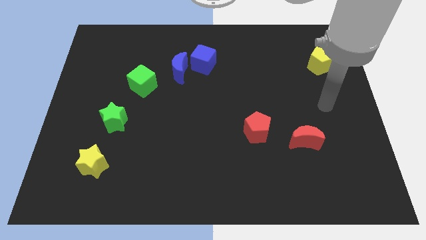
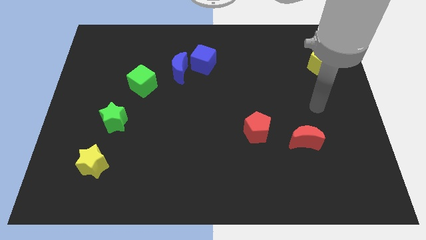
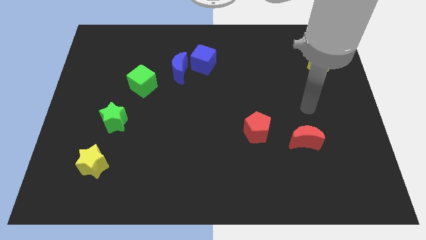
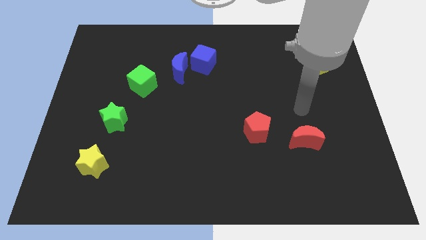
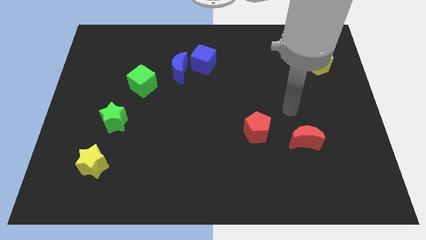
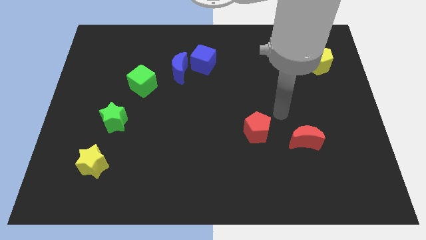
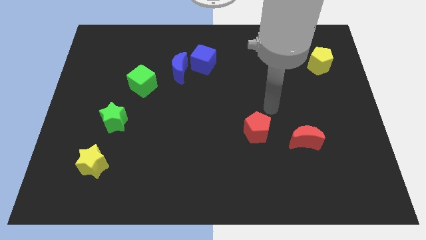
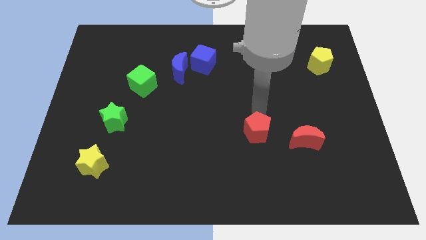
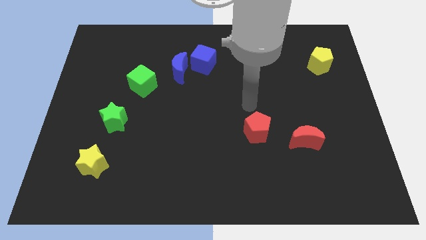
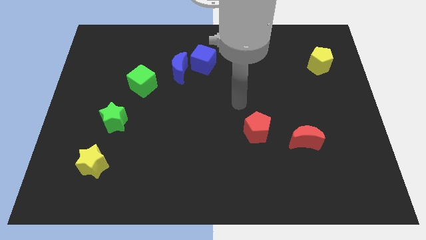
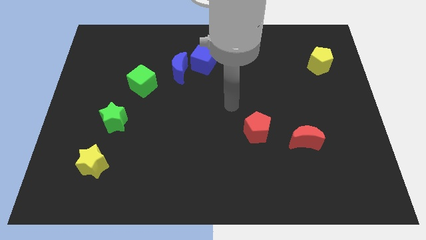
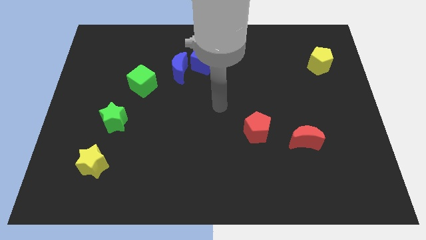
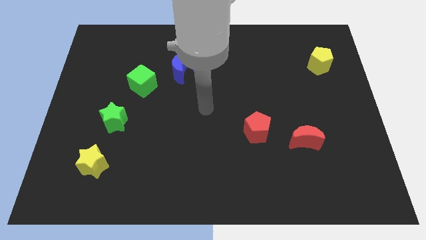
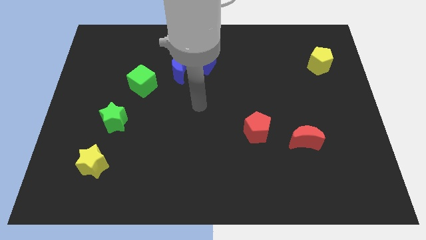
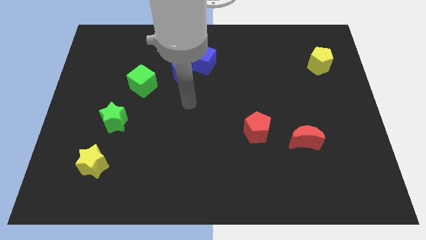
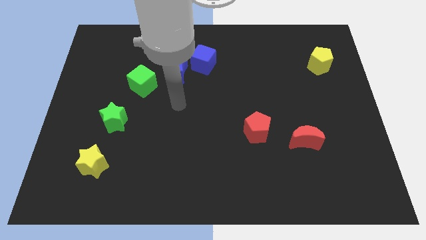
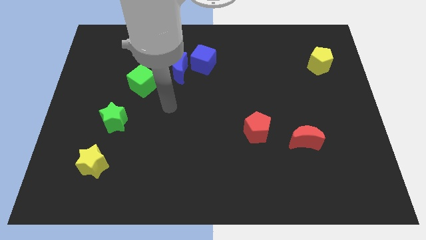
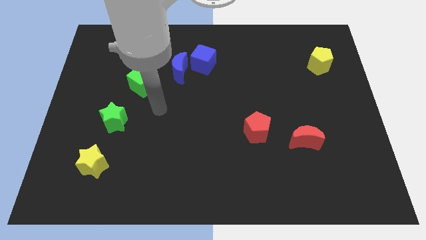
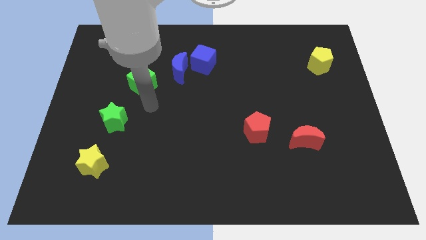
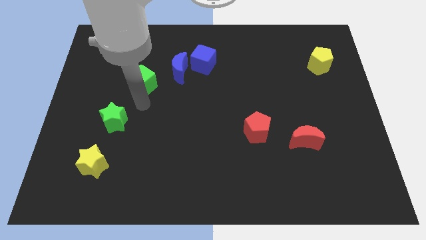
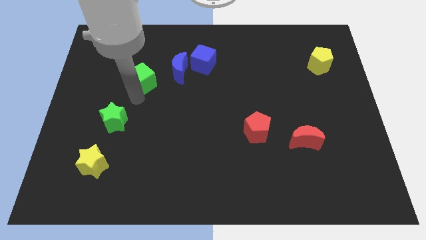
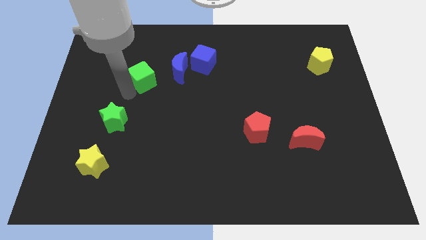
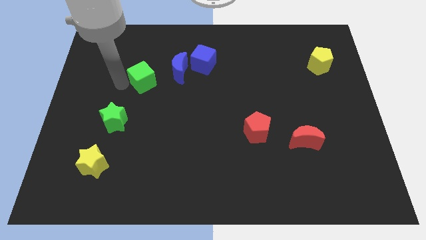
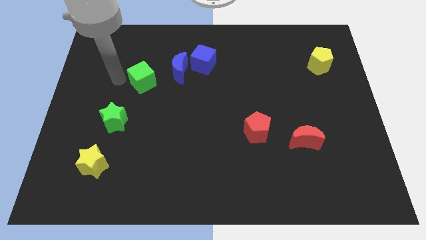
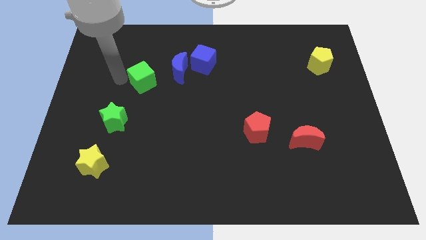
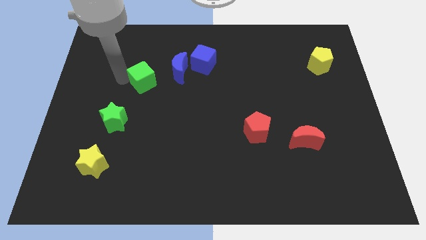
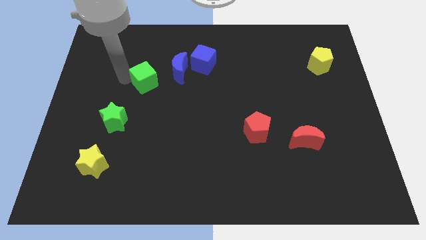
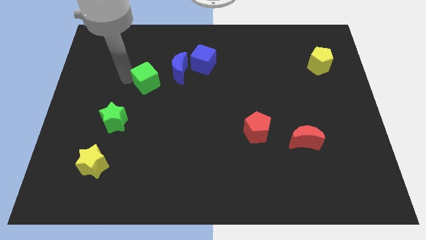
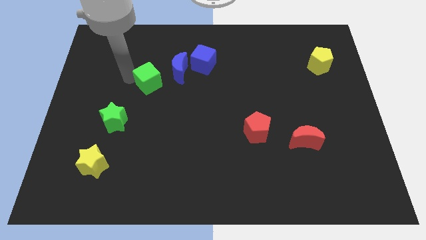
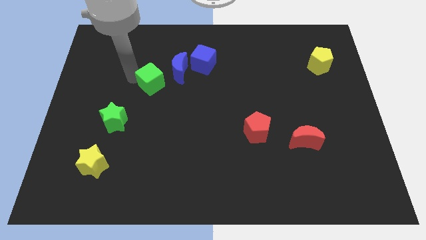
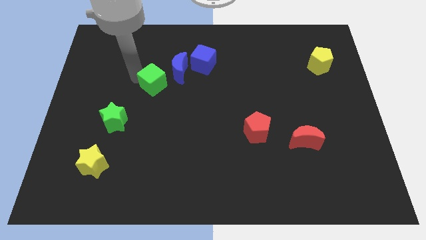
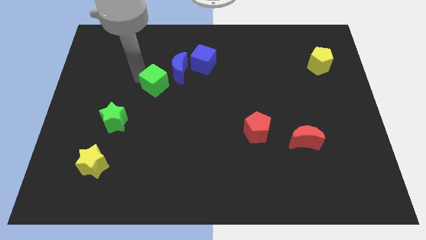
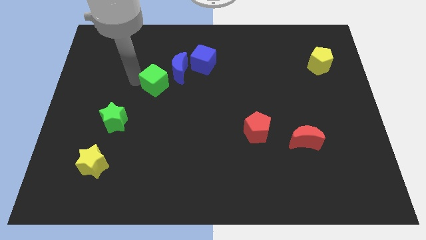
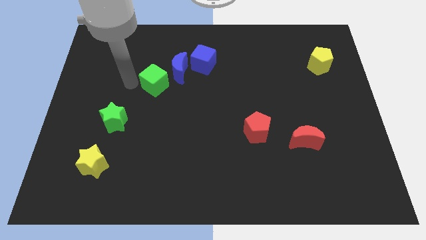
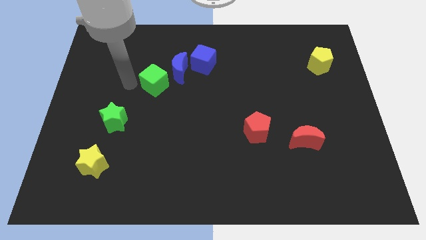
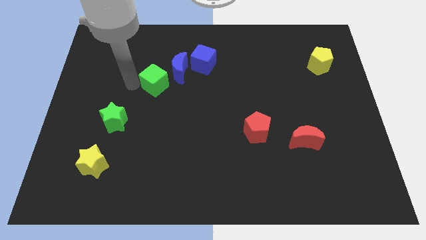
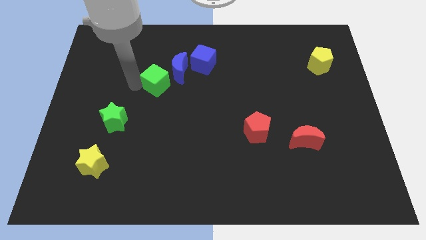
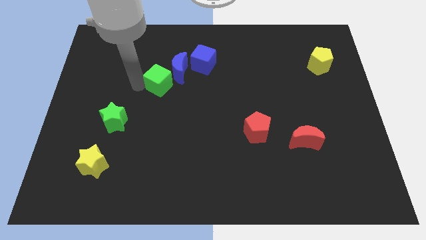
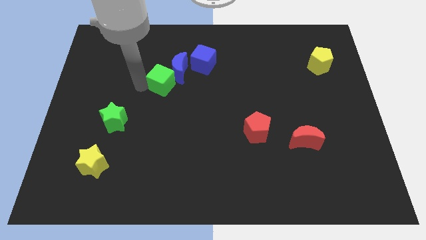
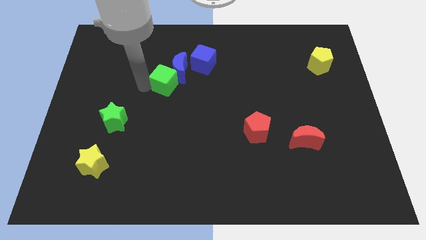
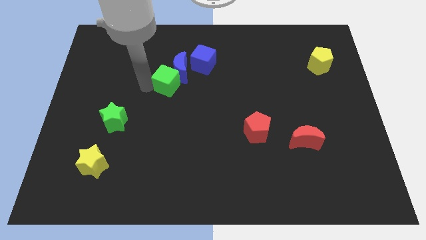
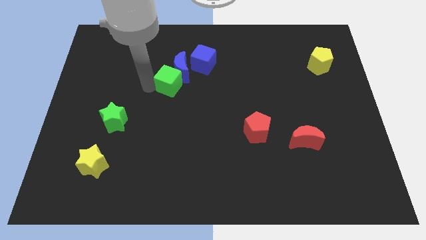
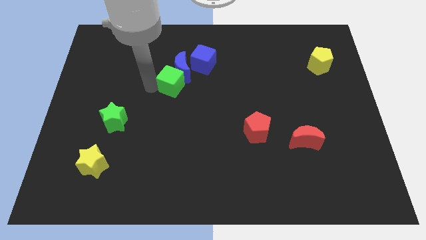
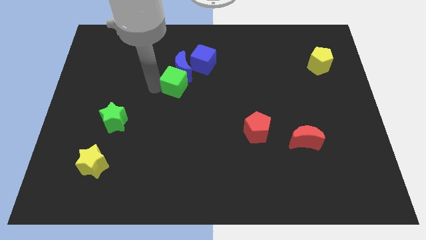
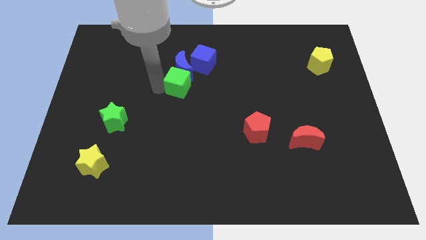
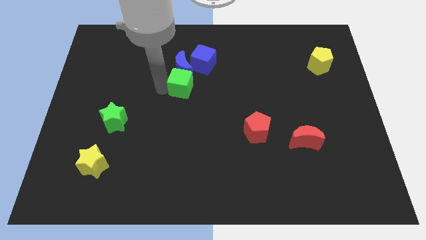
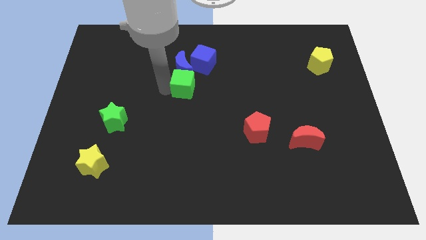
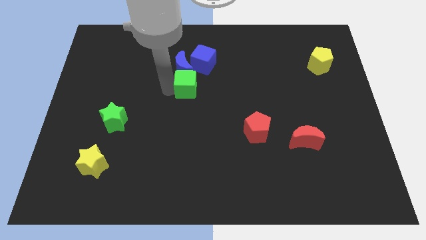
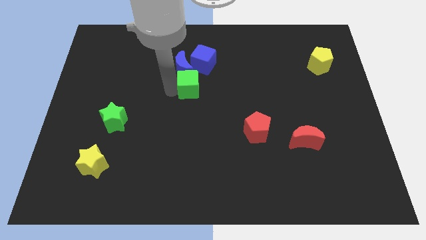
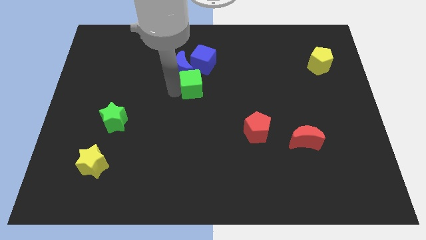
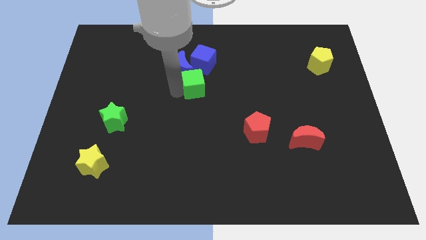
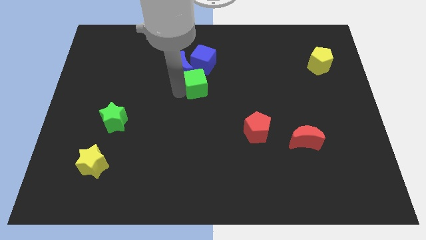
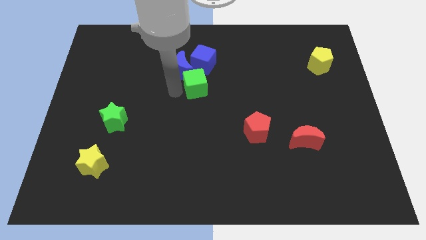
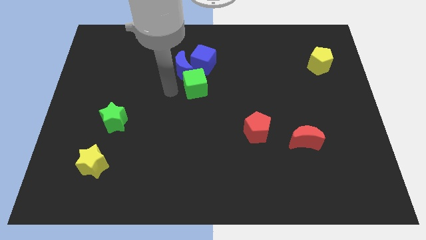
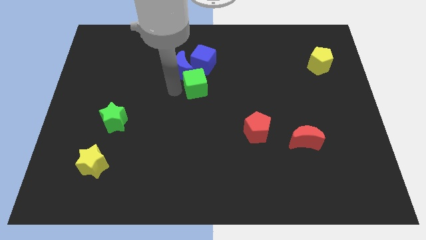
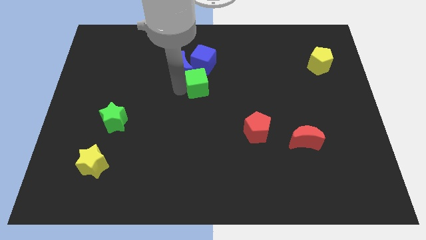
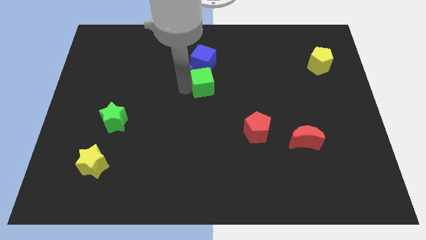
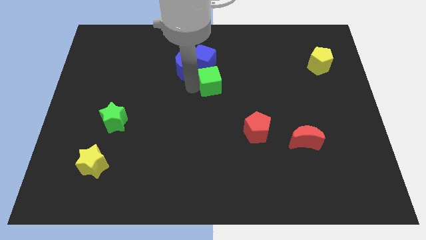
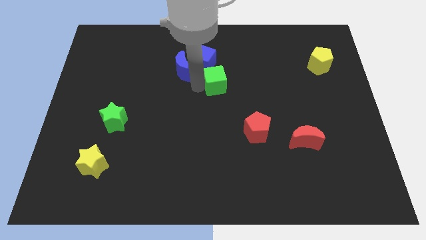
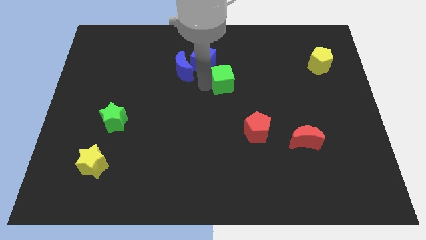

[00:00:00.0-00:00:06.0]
push the green cube right

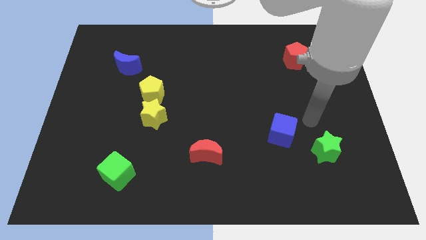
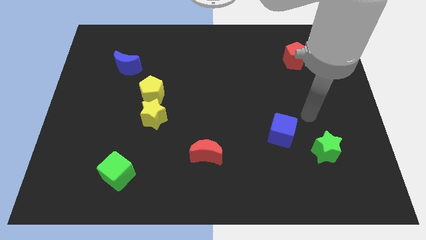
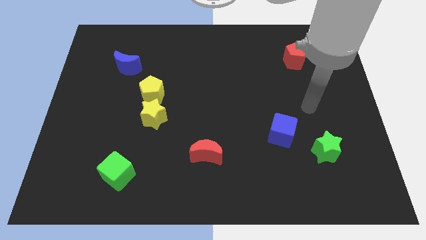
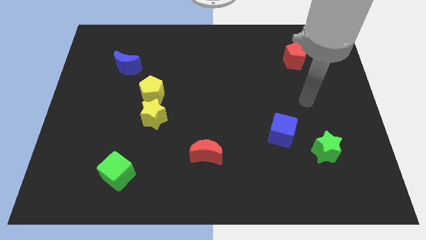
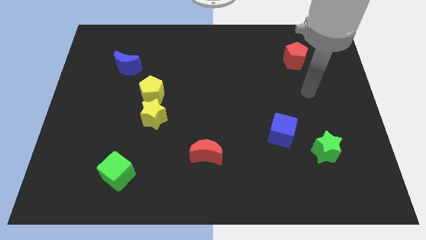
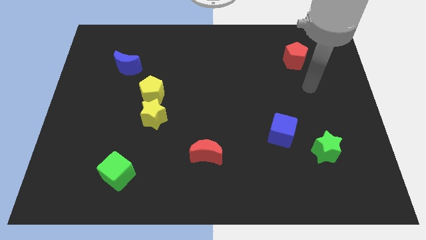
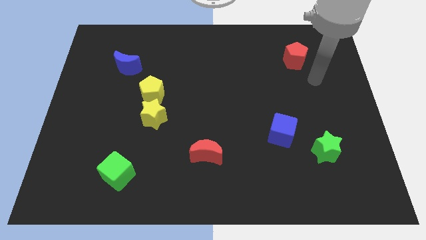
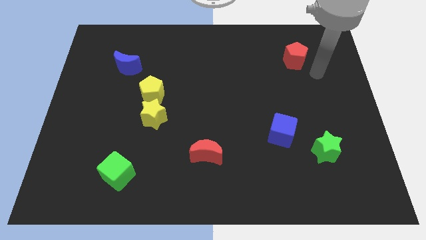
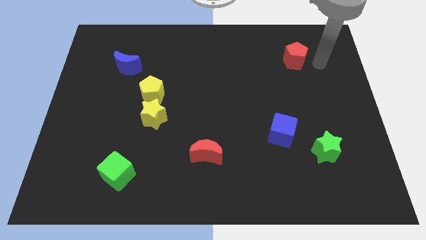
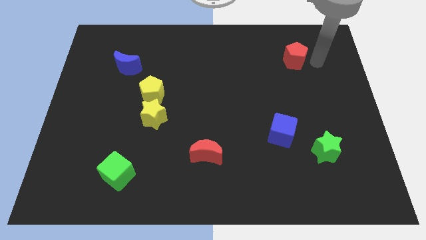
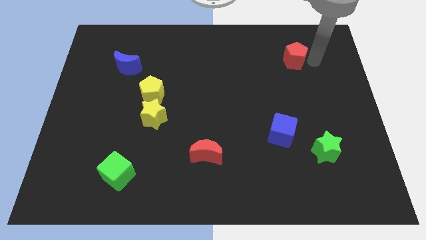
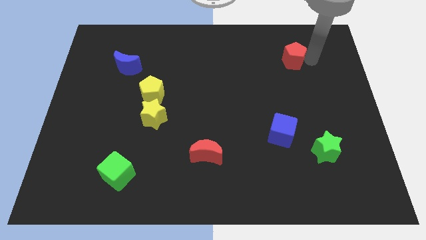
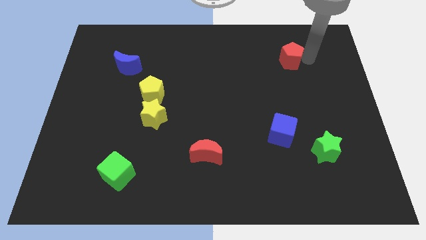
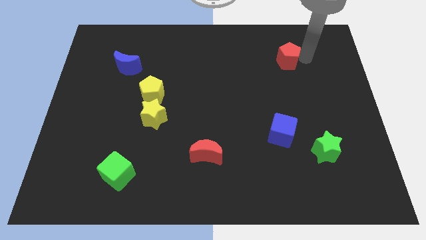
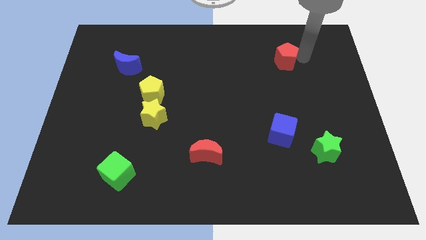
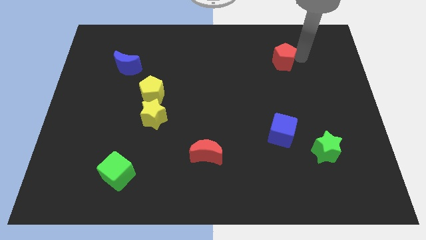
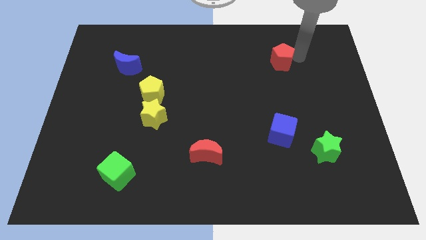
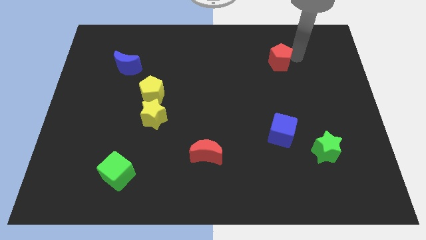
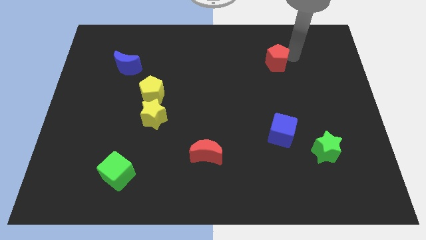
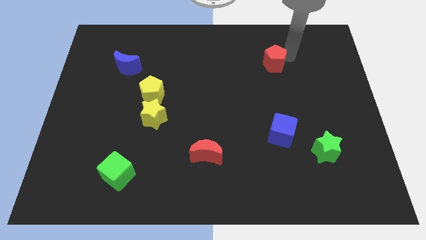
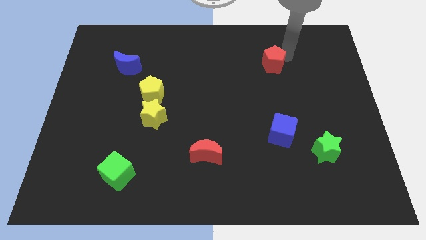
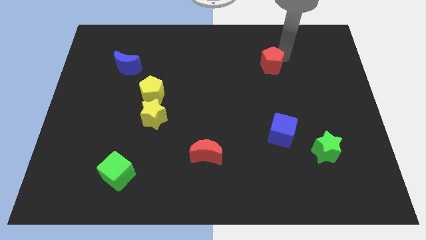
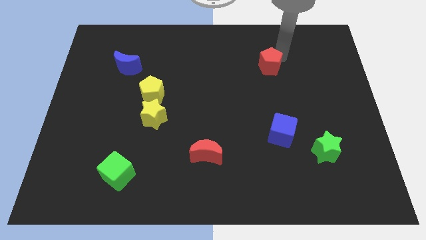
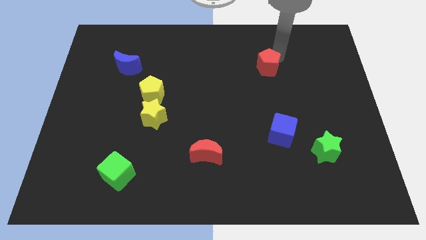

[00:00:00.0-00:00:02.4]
slightly push the red pentagon to the left
